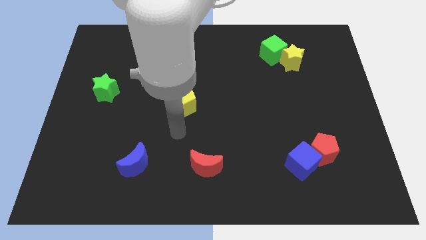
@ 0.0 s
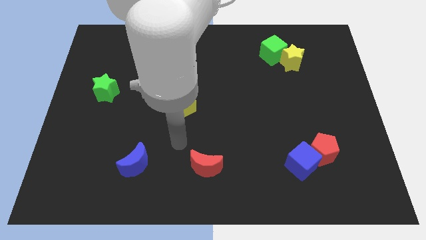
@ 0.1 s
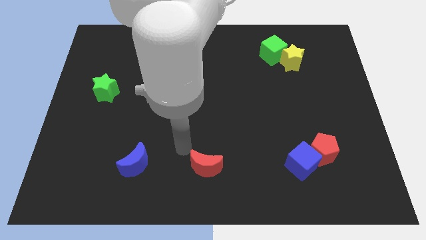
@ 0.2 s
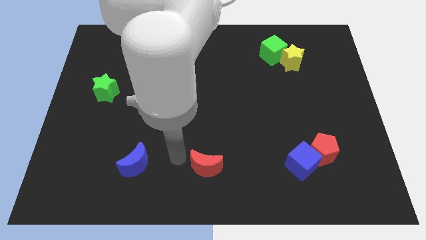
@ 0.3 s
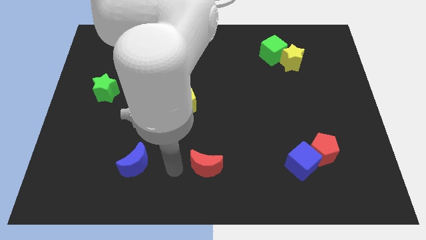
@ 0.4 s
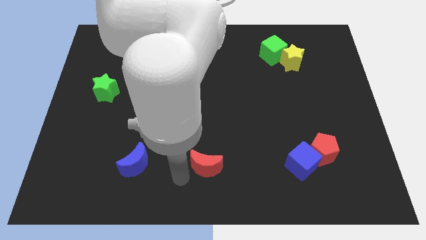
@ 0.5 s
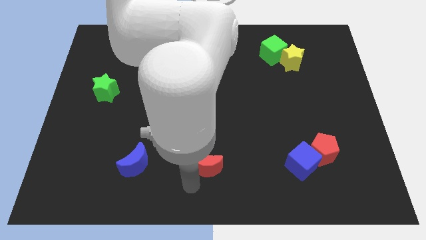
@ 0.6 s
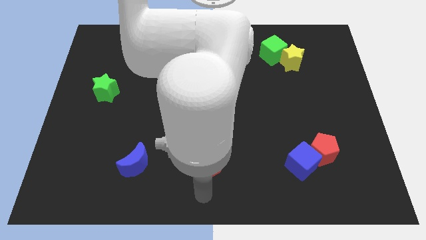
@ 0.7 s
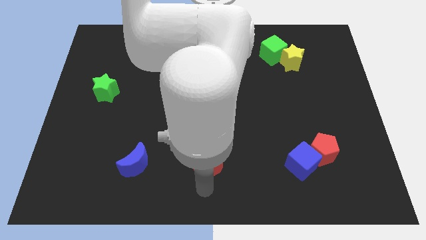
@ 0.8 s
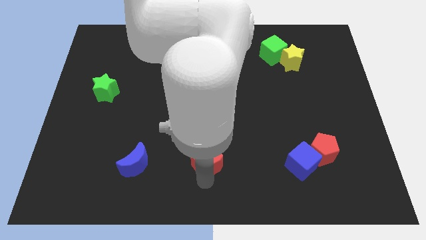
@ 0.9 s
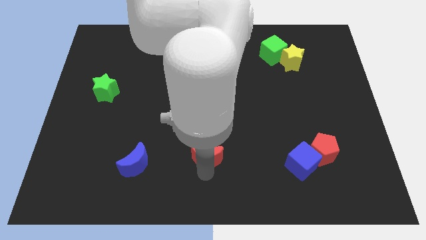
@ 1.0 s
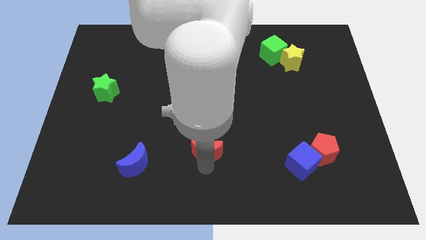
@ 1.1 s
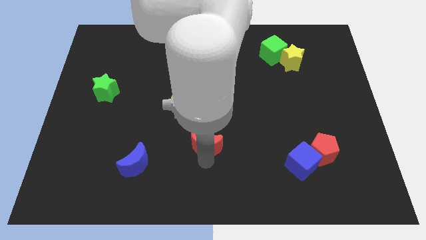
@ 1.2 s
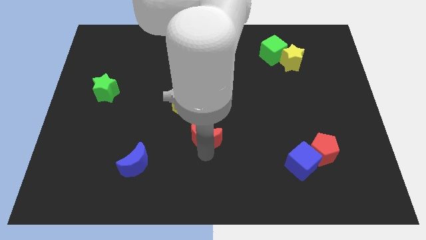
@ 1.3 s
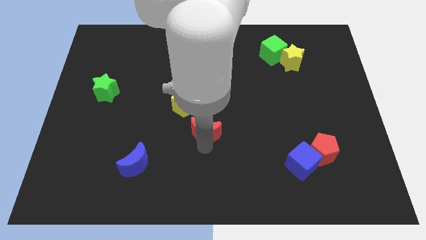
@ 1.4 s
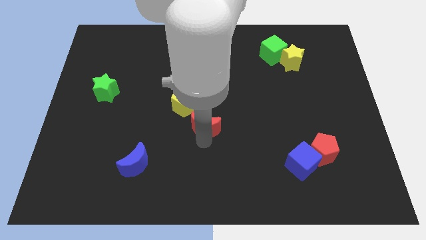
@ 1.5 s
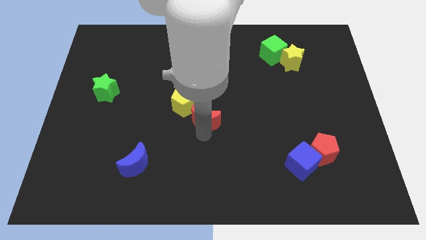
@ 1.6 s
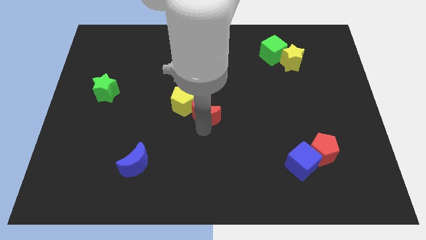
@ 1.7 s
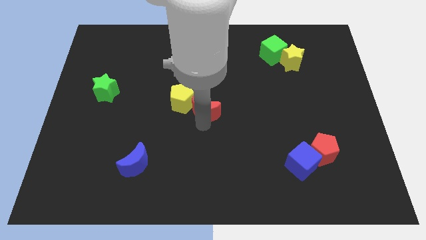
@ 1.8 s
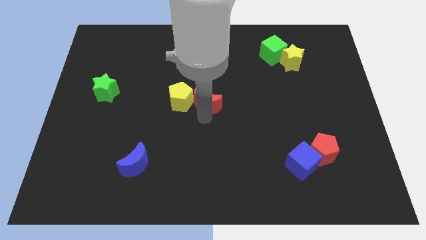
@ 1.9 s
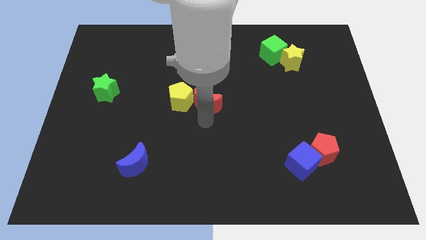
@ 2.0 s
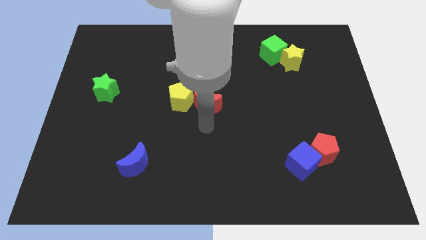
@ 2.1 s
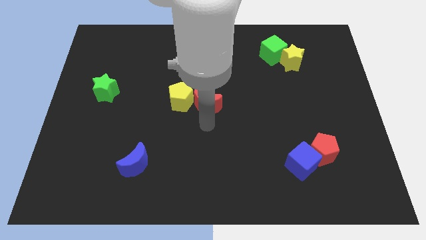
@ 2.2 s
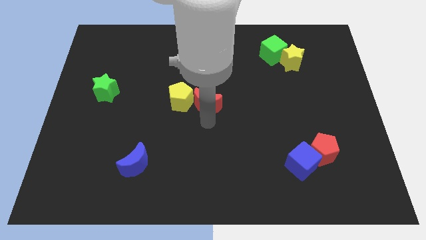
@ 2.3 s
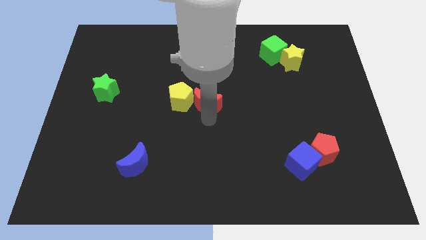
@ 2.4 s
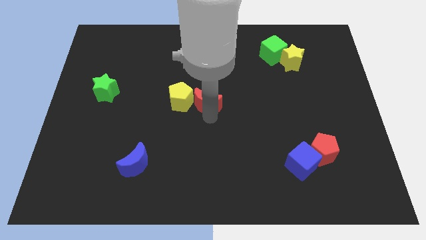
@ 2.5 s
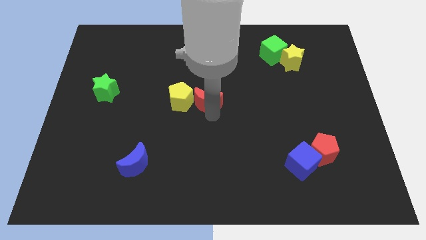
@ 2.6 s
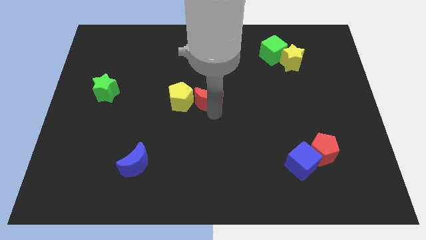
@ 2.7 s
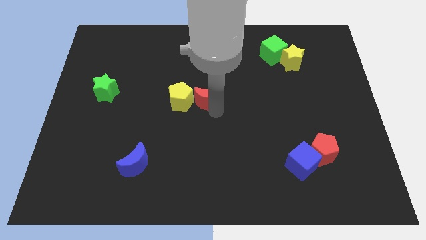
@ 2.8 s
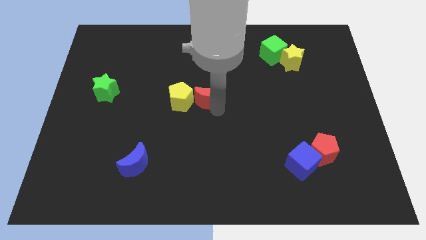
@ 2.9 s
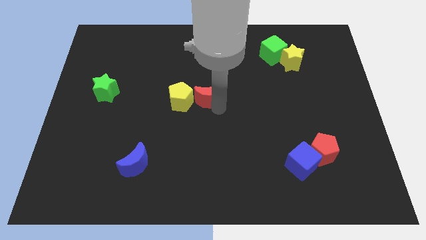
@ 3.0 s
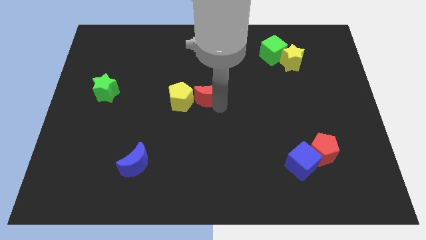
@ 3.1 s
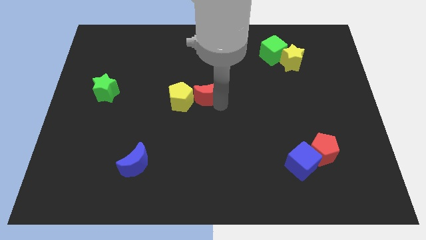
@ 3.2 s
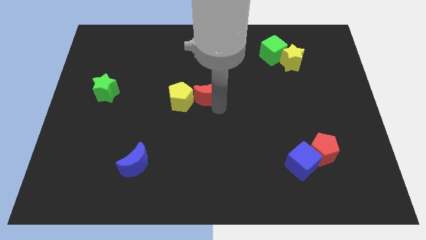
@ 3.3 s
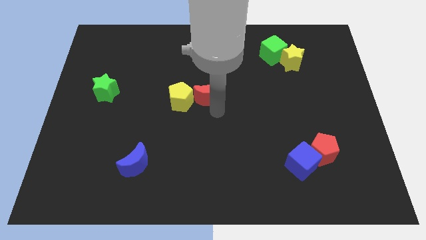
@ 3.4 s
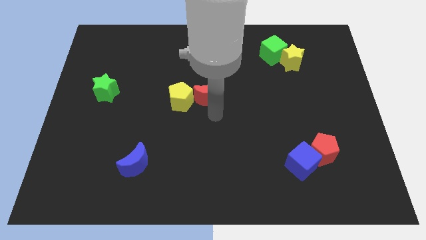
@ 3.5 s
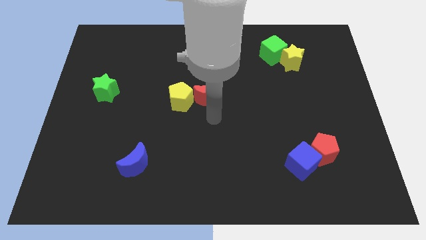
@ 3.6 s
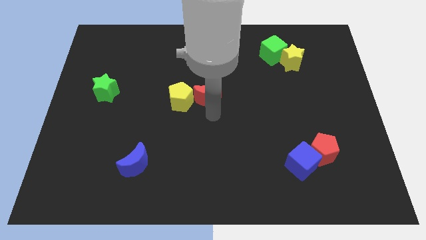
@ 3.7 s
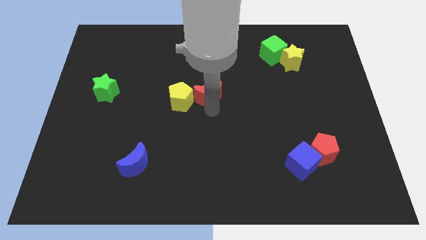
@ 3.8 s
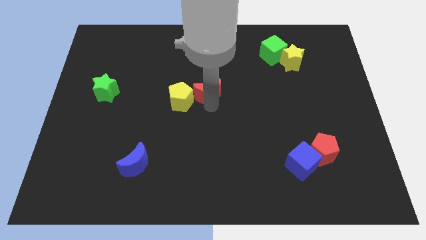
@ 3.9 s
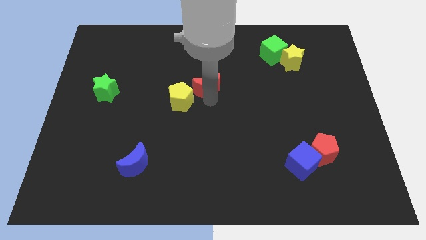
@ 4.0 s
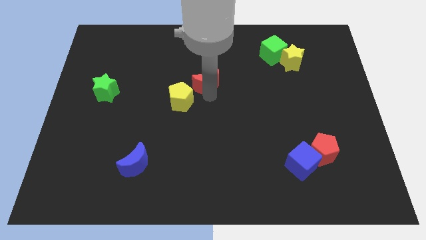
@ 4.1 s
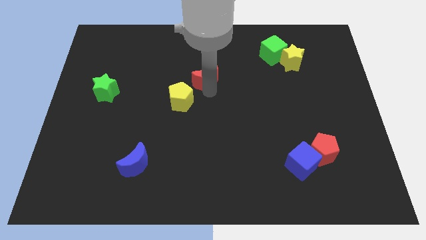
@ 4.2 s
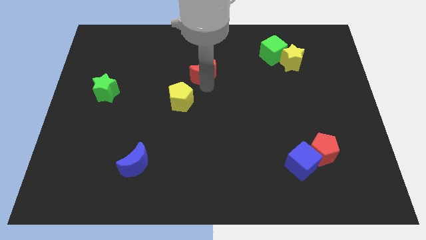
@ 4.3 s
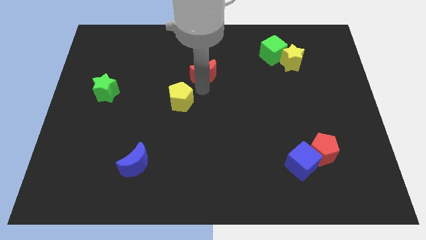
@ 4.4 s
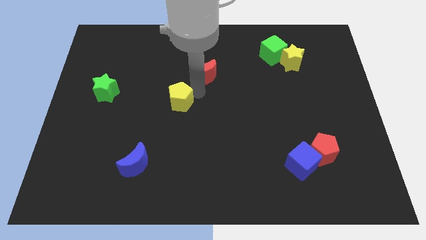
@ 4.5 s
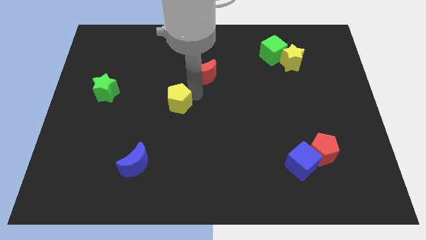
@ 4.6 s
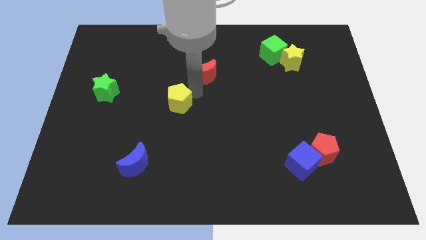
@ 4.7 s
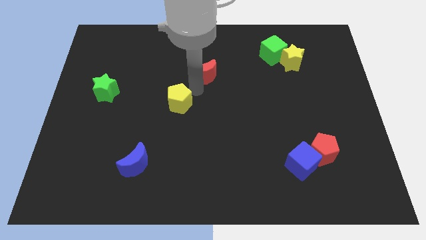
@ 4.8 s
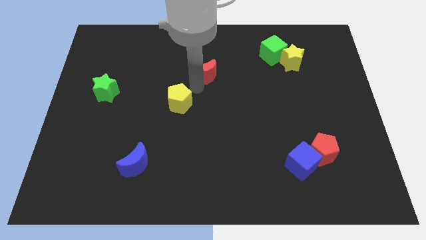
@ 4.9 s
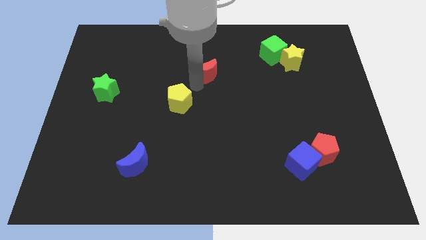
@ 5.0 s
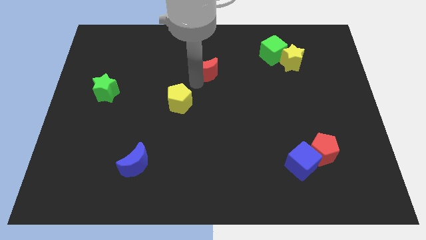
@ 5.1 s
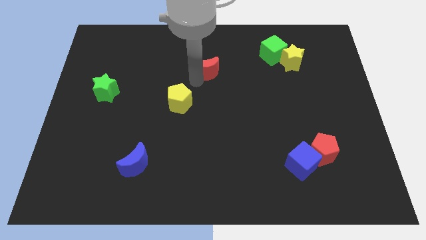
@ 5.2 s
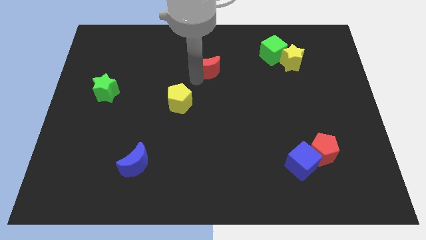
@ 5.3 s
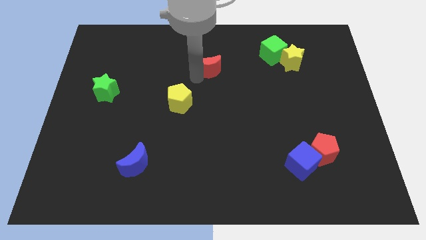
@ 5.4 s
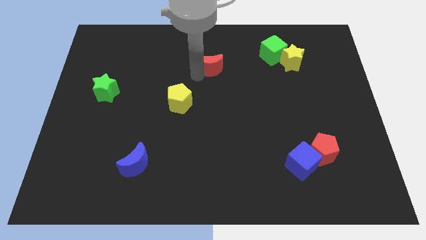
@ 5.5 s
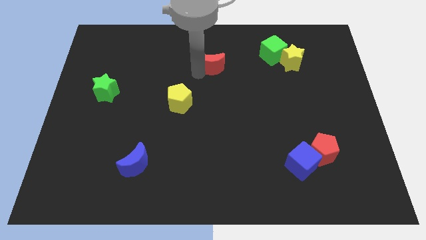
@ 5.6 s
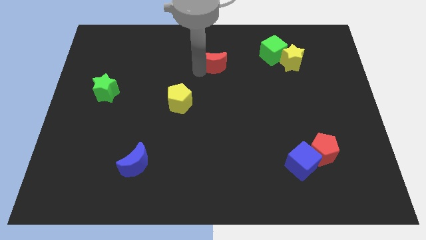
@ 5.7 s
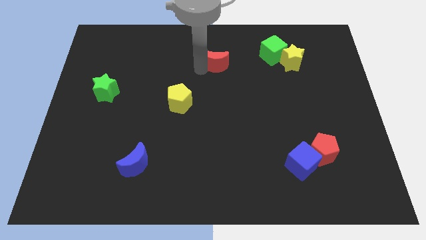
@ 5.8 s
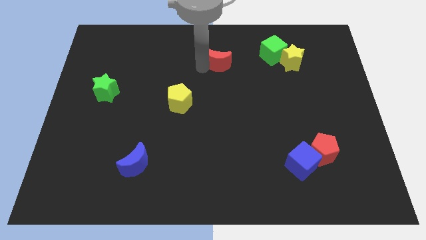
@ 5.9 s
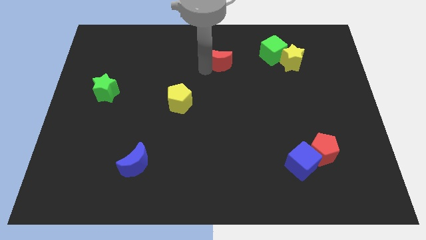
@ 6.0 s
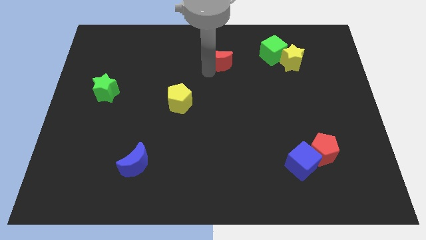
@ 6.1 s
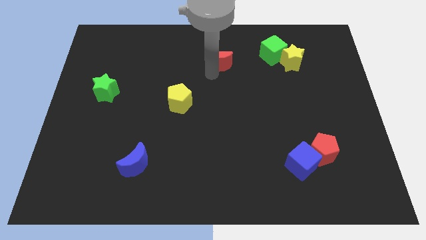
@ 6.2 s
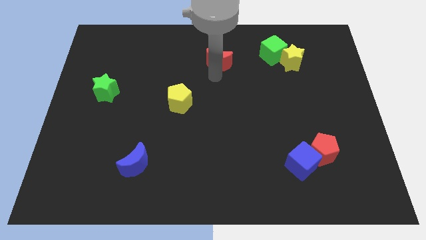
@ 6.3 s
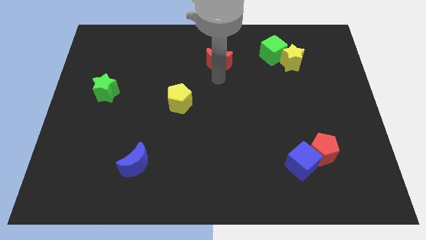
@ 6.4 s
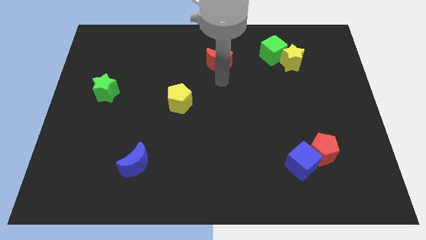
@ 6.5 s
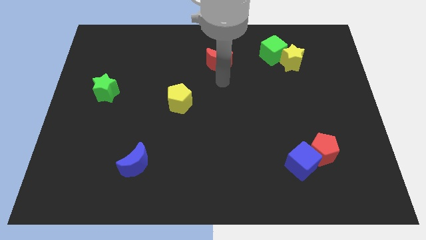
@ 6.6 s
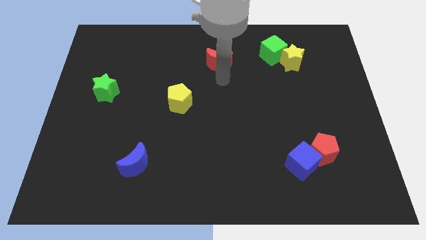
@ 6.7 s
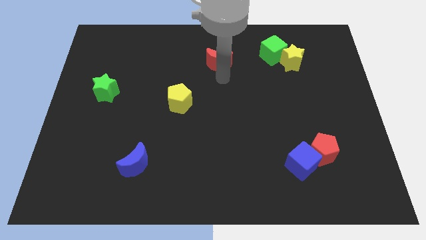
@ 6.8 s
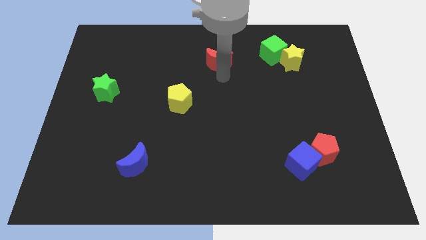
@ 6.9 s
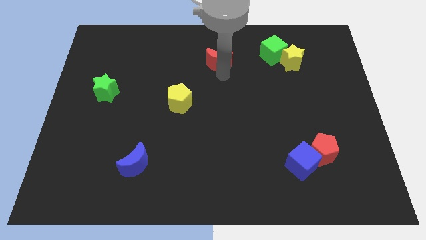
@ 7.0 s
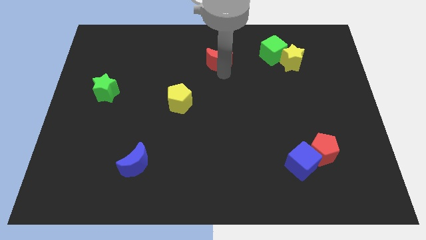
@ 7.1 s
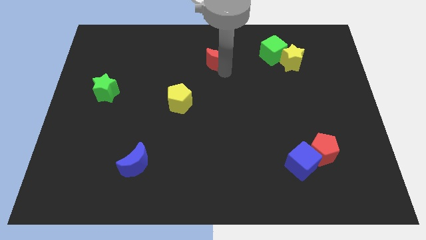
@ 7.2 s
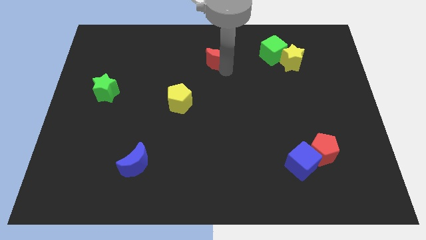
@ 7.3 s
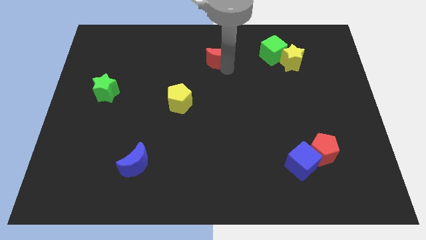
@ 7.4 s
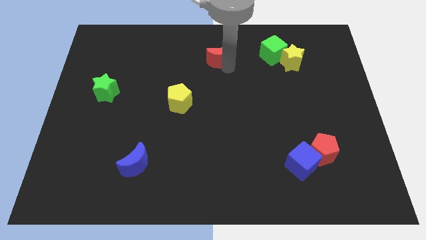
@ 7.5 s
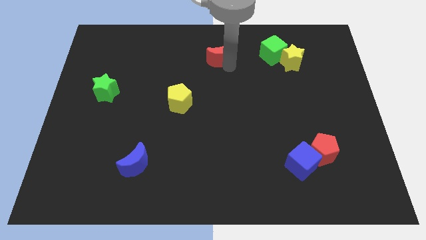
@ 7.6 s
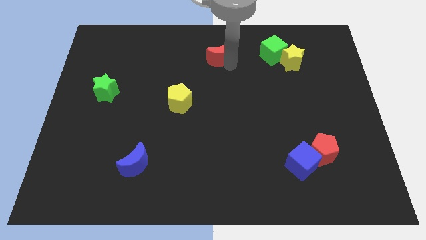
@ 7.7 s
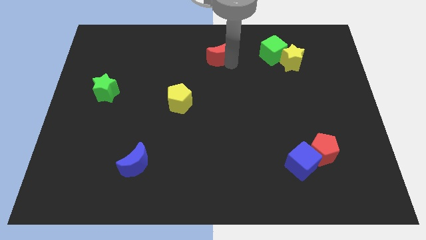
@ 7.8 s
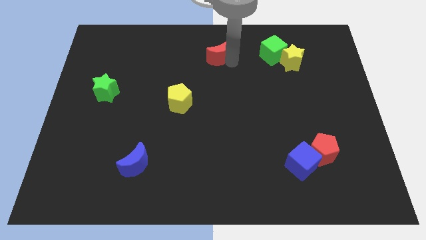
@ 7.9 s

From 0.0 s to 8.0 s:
put the red moon to the top side
